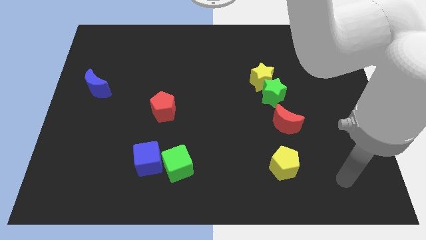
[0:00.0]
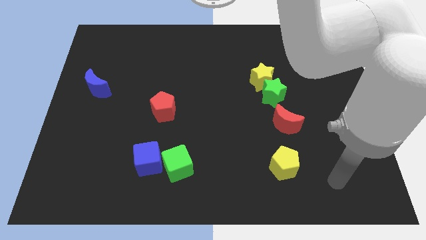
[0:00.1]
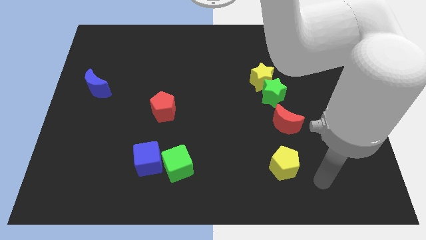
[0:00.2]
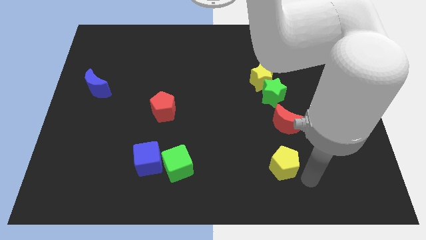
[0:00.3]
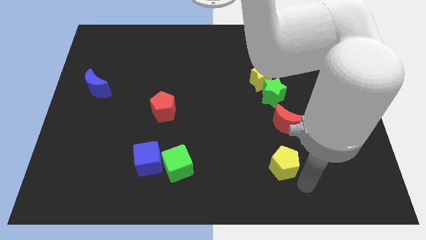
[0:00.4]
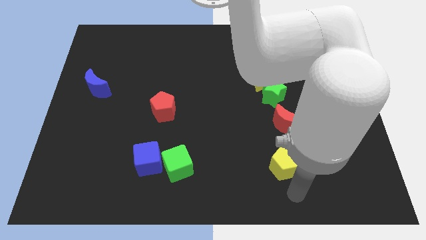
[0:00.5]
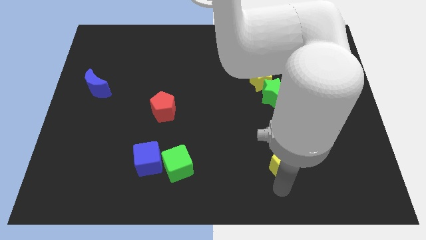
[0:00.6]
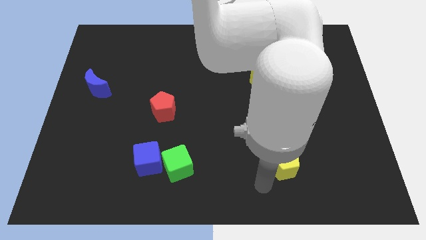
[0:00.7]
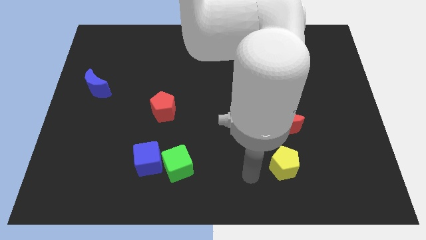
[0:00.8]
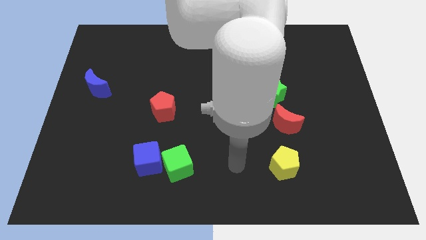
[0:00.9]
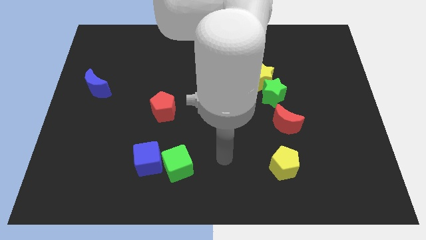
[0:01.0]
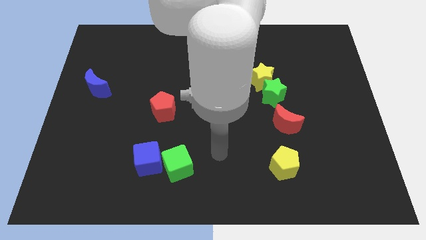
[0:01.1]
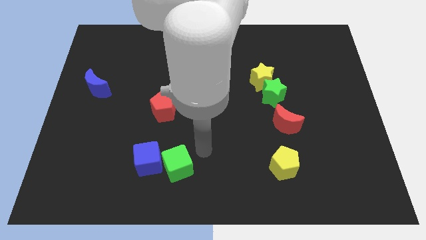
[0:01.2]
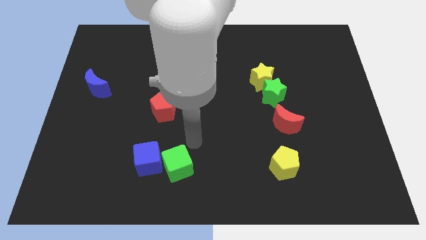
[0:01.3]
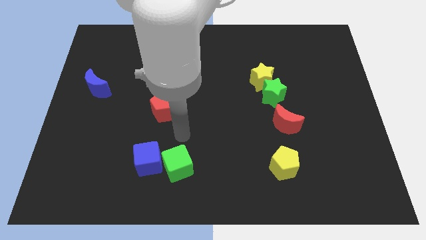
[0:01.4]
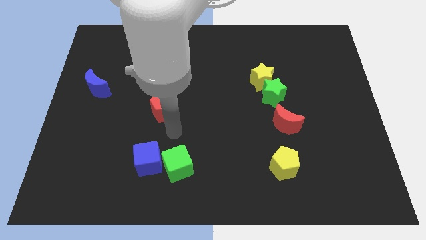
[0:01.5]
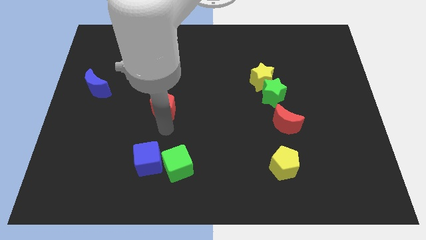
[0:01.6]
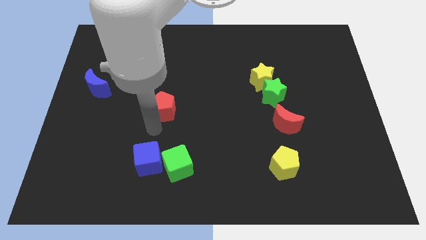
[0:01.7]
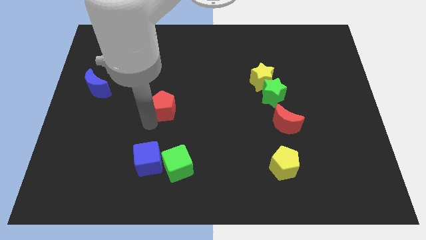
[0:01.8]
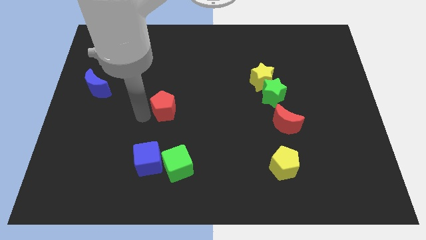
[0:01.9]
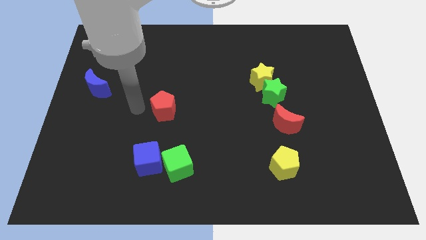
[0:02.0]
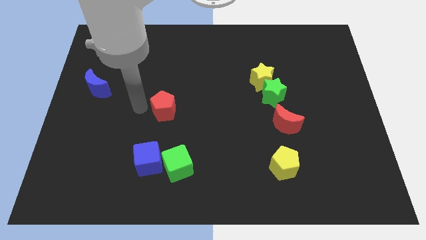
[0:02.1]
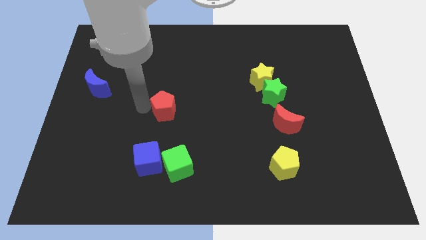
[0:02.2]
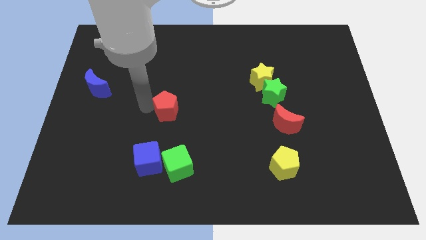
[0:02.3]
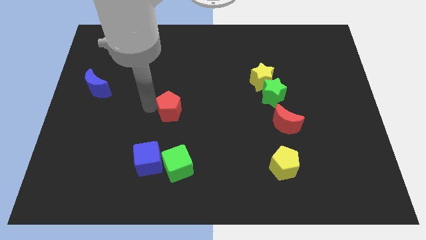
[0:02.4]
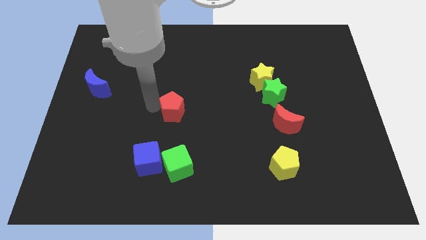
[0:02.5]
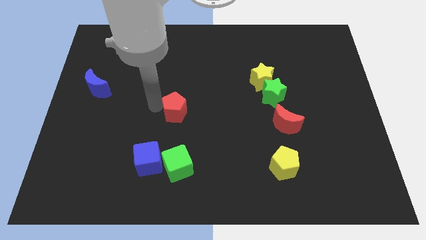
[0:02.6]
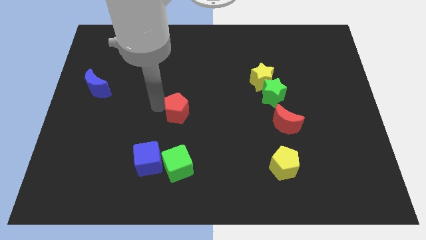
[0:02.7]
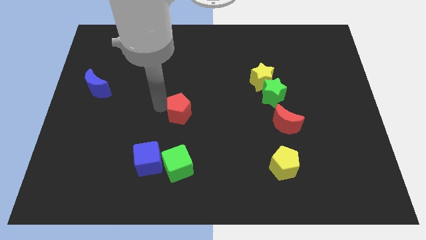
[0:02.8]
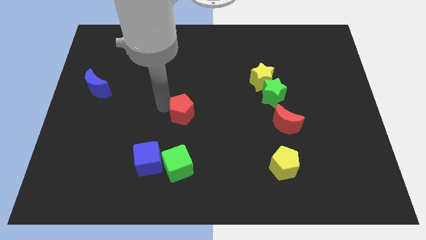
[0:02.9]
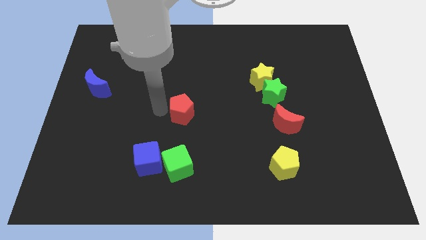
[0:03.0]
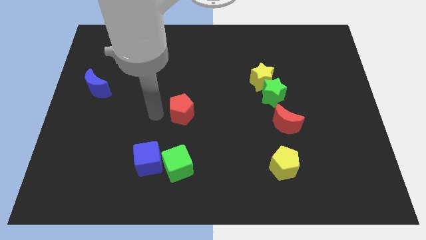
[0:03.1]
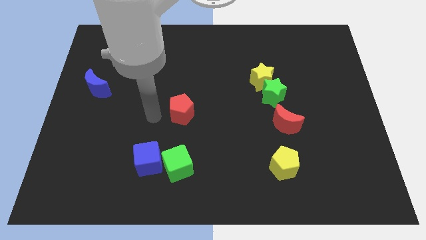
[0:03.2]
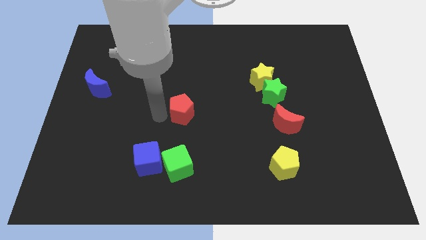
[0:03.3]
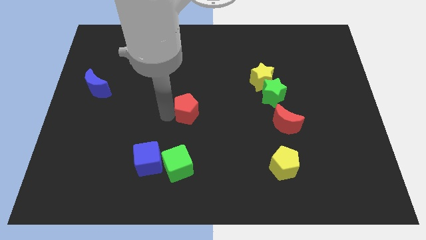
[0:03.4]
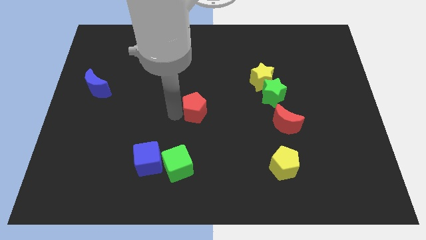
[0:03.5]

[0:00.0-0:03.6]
slightly slide the red pentagon to the right

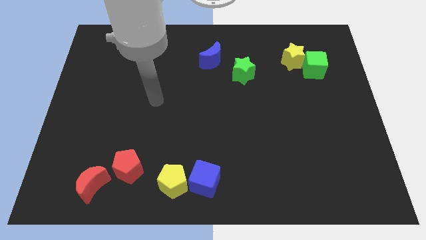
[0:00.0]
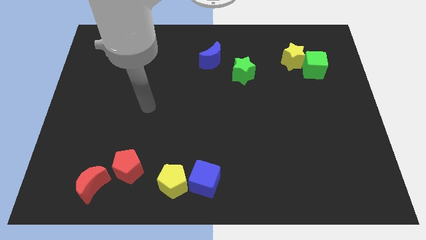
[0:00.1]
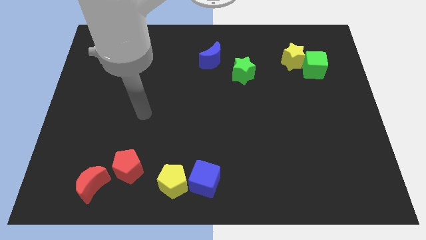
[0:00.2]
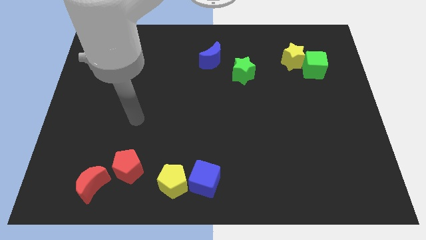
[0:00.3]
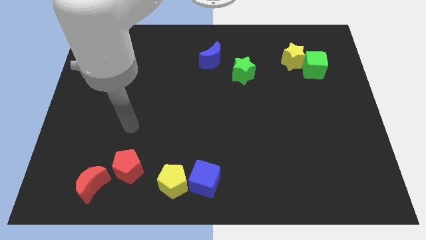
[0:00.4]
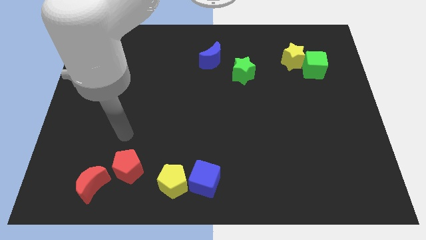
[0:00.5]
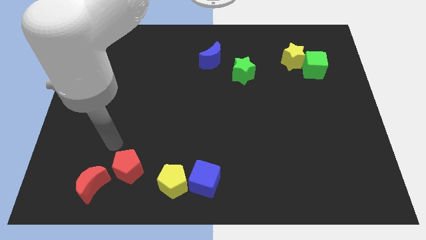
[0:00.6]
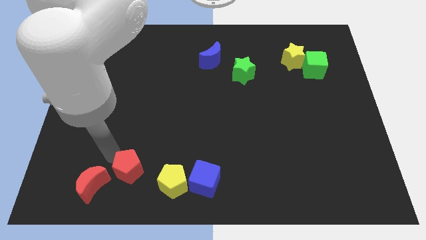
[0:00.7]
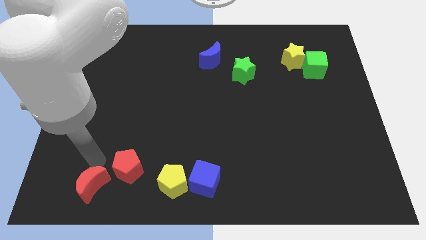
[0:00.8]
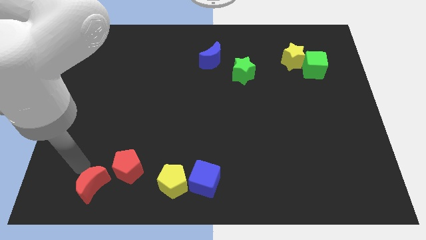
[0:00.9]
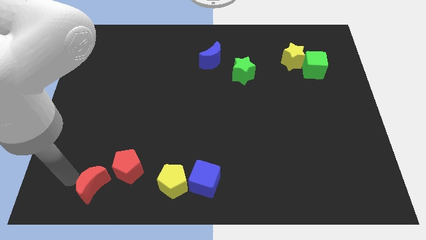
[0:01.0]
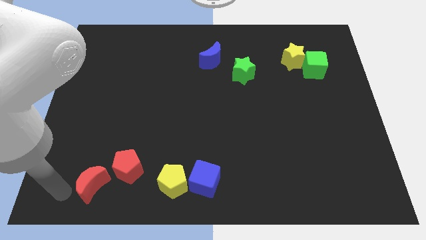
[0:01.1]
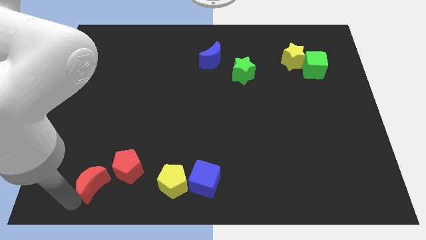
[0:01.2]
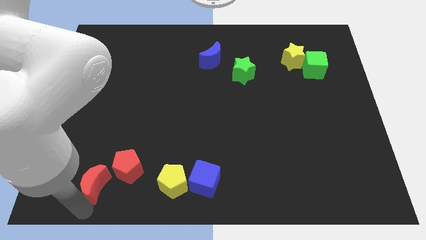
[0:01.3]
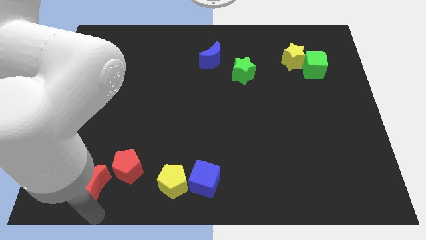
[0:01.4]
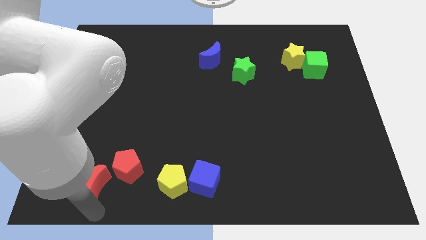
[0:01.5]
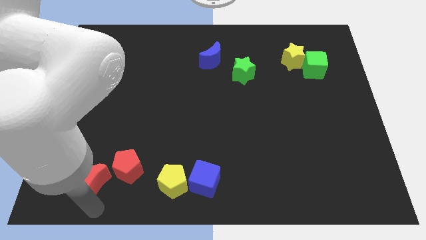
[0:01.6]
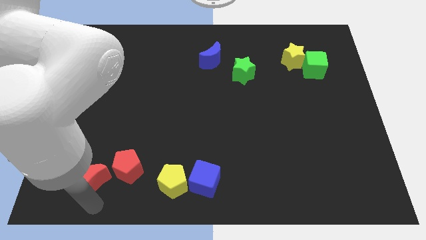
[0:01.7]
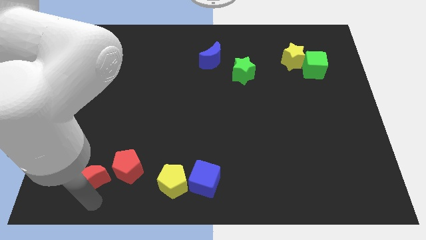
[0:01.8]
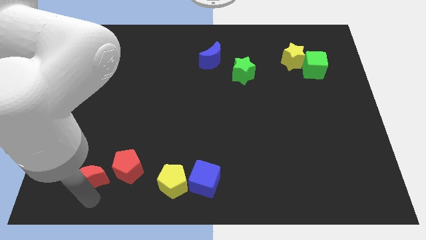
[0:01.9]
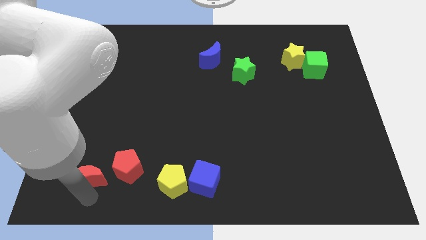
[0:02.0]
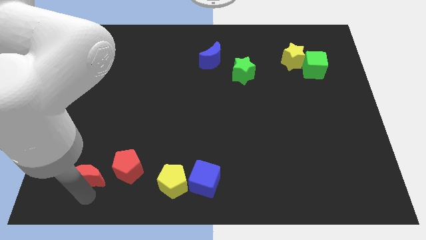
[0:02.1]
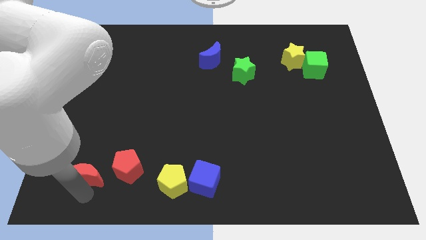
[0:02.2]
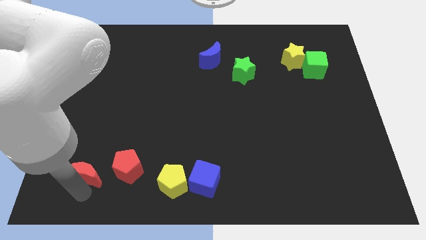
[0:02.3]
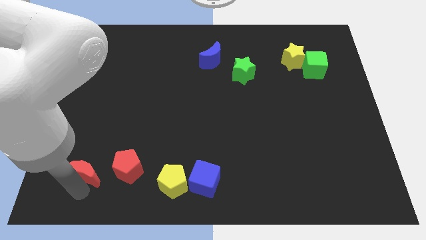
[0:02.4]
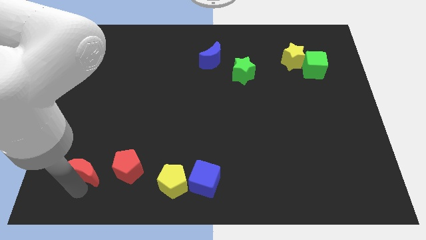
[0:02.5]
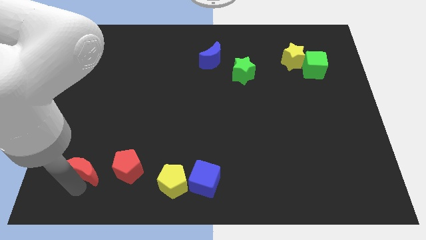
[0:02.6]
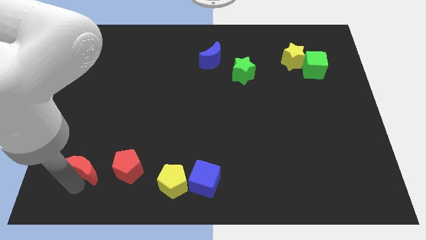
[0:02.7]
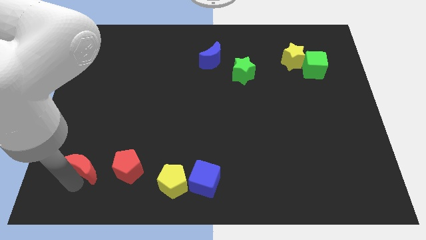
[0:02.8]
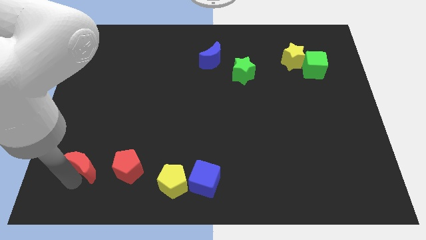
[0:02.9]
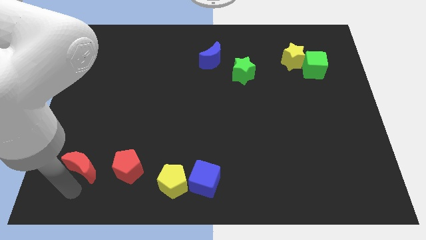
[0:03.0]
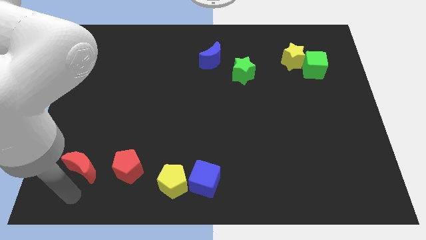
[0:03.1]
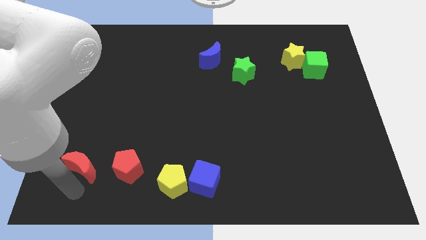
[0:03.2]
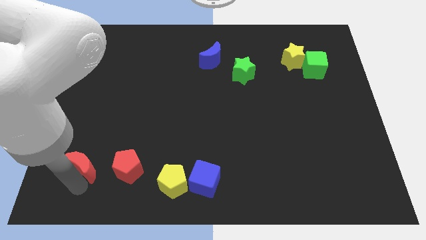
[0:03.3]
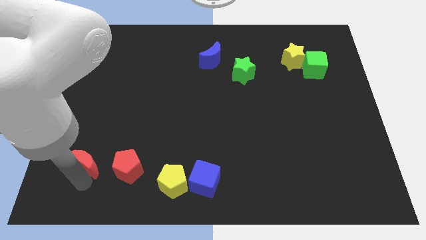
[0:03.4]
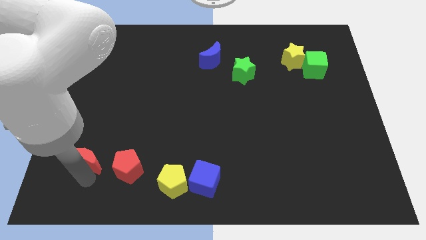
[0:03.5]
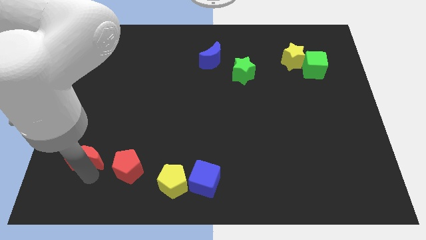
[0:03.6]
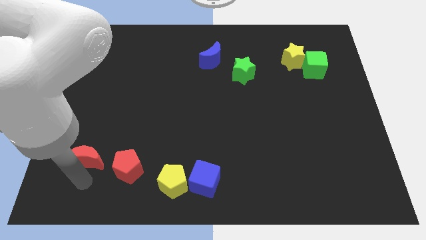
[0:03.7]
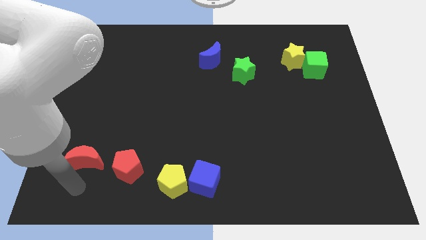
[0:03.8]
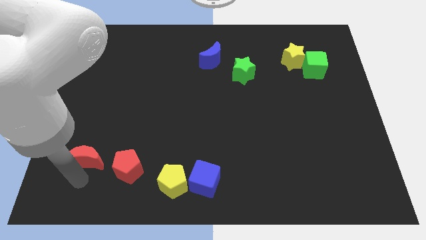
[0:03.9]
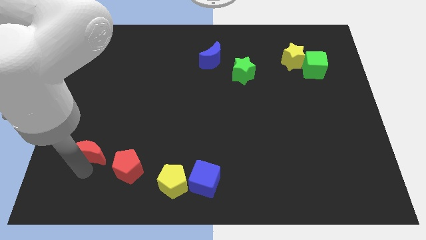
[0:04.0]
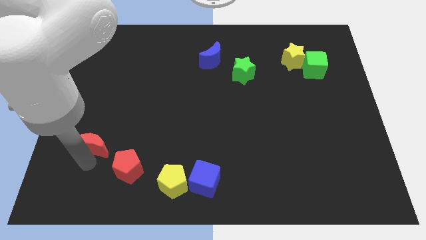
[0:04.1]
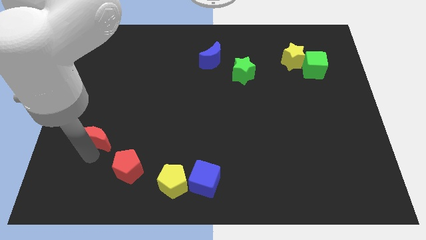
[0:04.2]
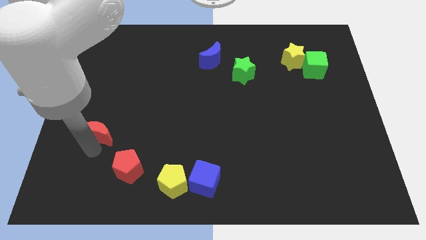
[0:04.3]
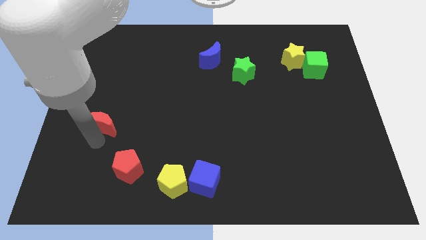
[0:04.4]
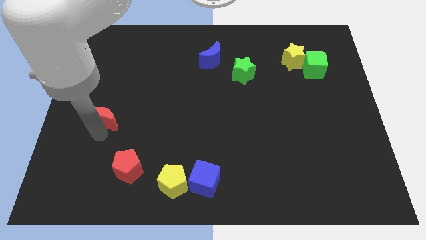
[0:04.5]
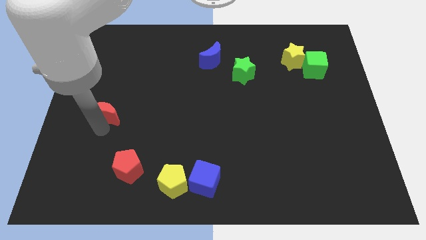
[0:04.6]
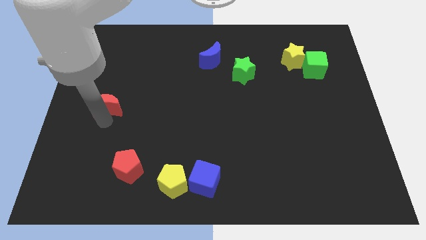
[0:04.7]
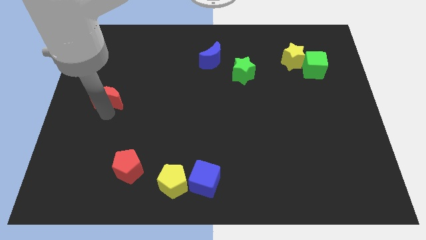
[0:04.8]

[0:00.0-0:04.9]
push the red moon up
